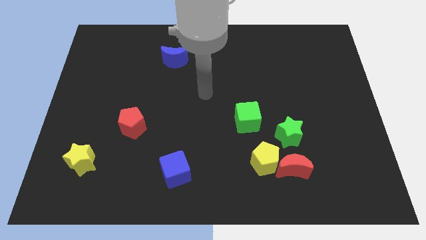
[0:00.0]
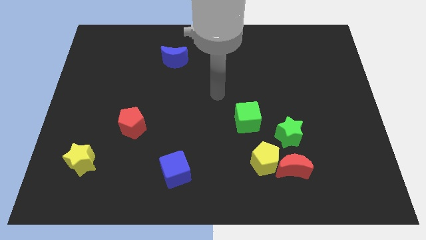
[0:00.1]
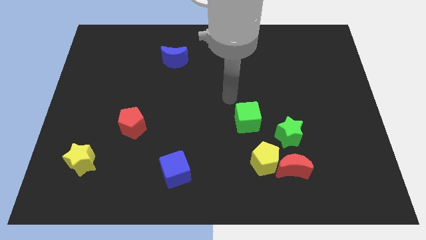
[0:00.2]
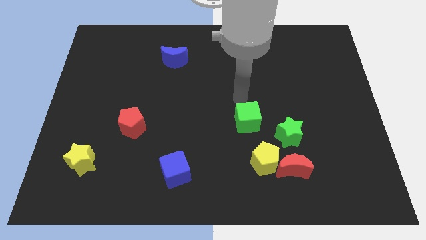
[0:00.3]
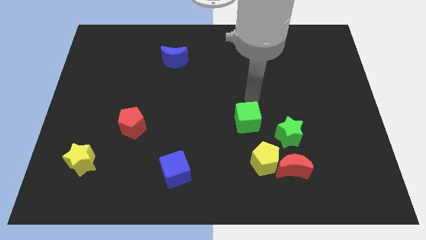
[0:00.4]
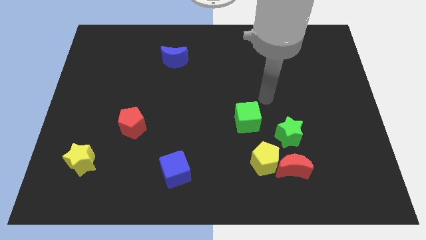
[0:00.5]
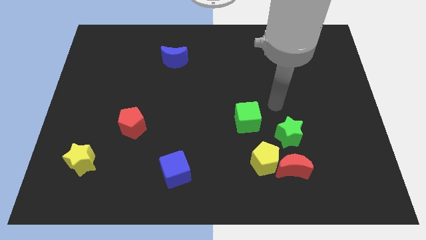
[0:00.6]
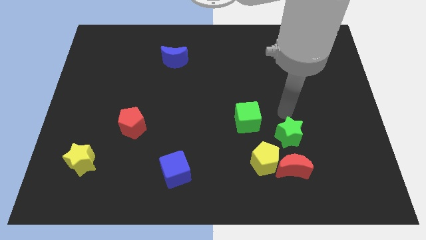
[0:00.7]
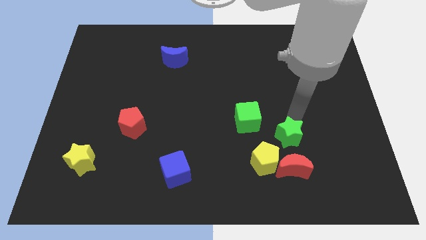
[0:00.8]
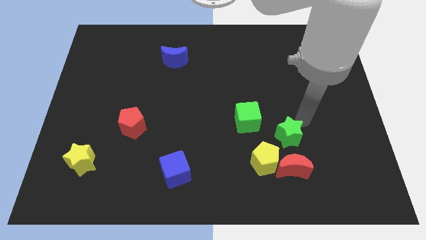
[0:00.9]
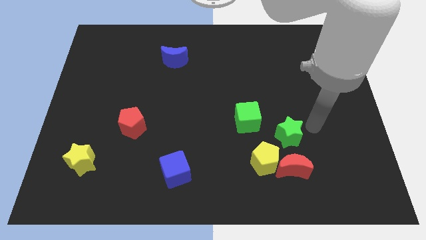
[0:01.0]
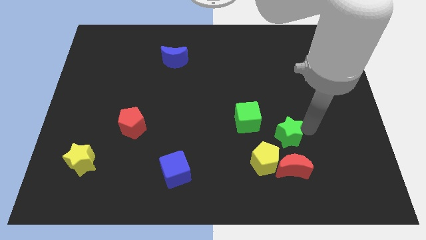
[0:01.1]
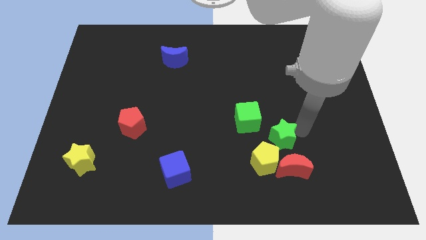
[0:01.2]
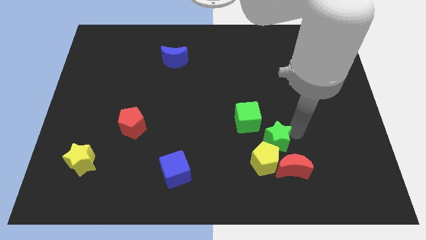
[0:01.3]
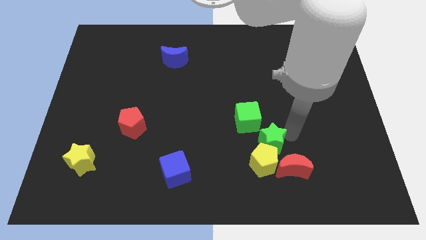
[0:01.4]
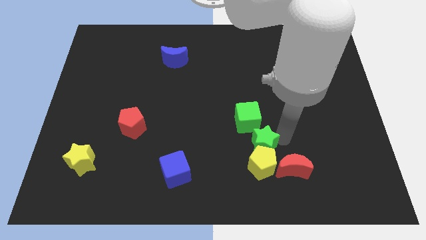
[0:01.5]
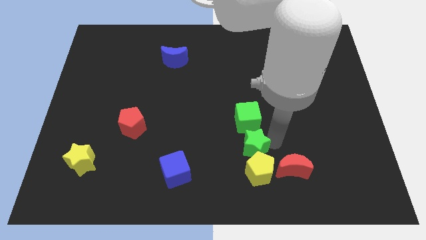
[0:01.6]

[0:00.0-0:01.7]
slide the green star to the left somewhat

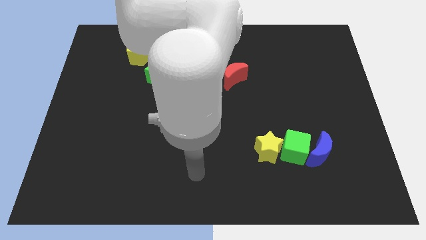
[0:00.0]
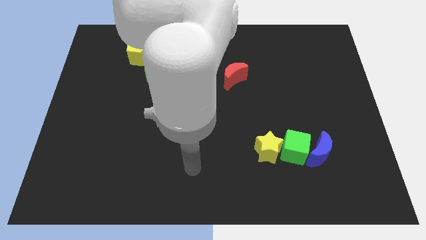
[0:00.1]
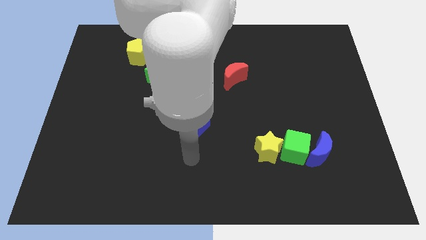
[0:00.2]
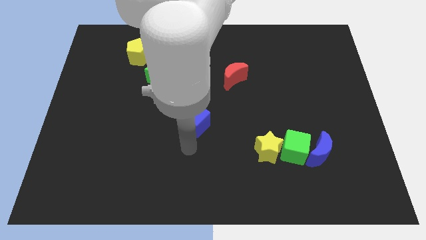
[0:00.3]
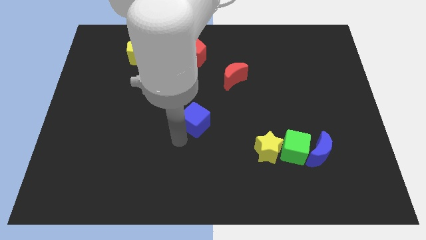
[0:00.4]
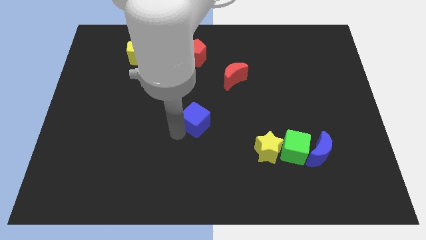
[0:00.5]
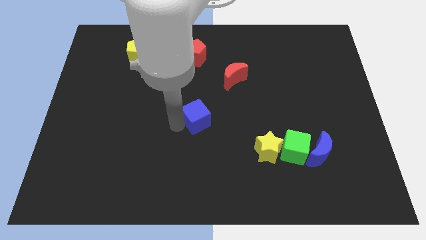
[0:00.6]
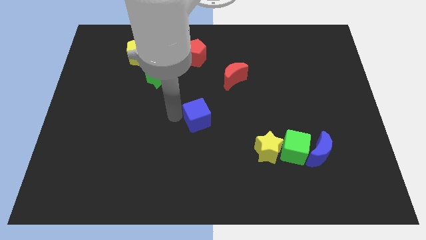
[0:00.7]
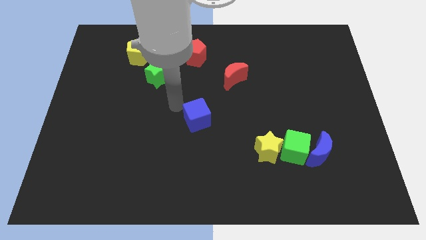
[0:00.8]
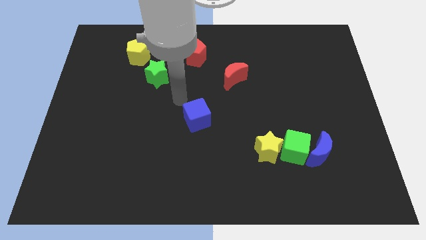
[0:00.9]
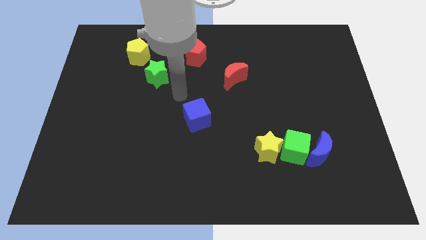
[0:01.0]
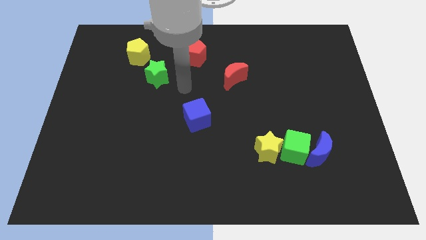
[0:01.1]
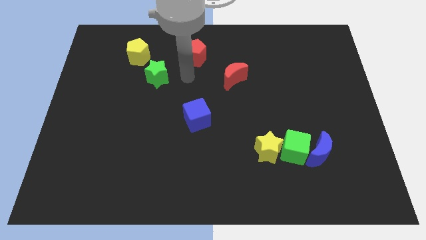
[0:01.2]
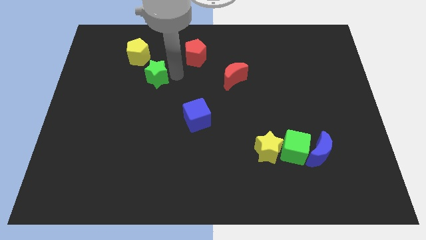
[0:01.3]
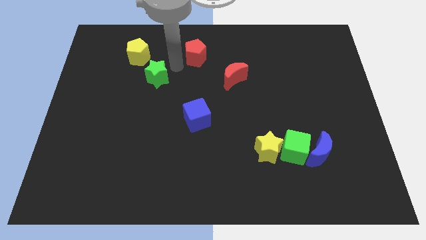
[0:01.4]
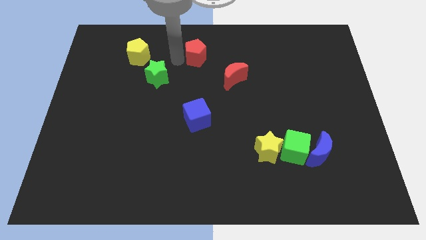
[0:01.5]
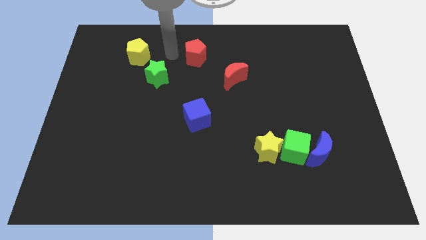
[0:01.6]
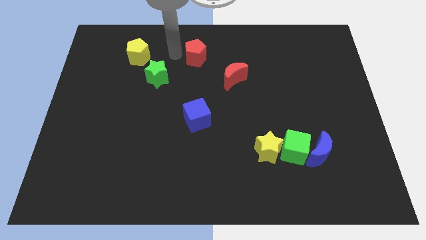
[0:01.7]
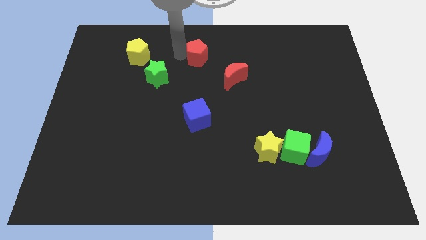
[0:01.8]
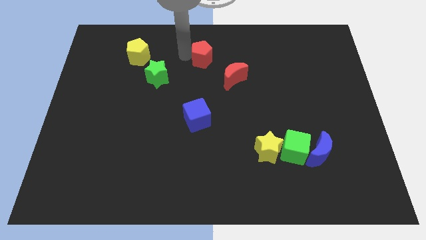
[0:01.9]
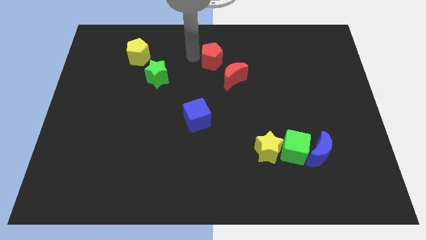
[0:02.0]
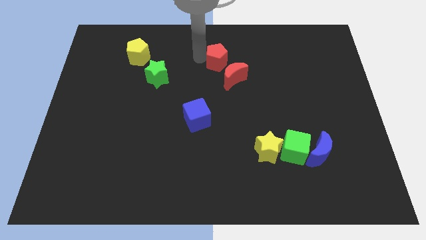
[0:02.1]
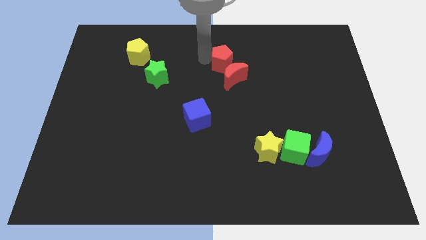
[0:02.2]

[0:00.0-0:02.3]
slightly slide the red pentagon to the right

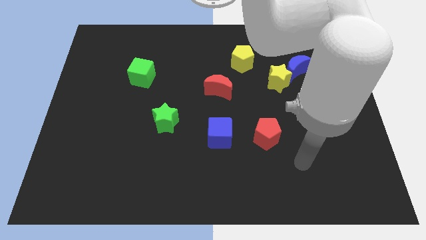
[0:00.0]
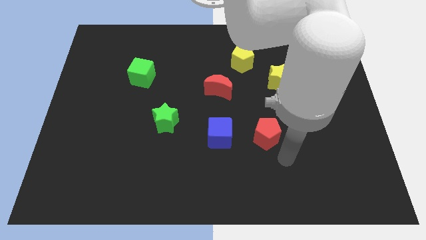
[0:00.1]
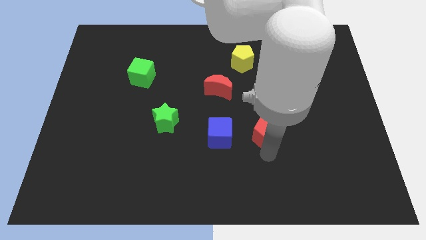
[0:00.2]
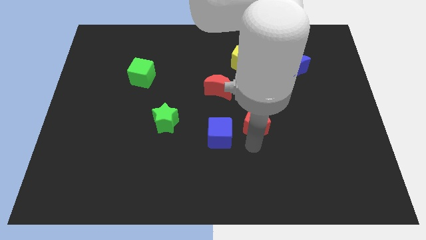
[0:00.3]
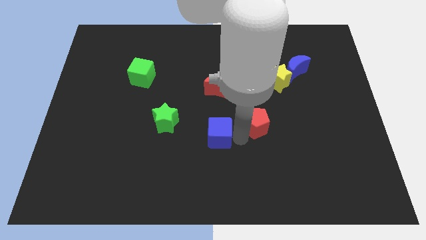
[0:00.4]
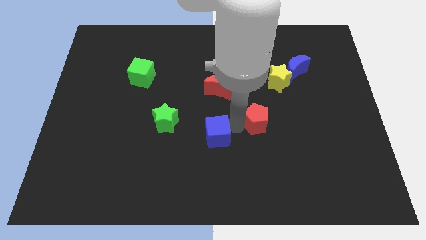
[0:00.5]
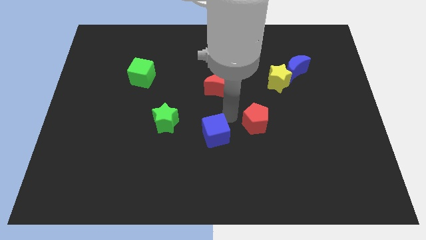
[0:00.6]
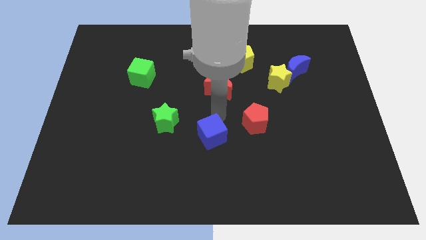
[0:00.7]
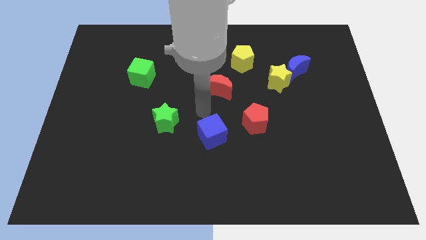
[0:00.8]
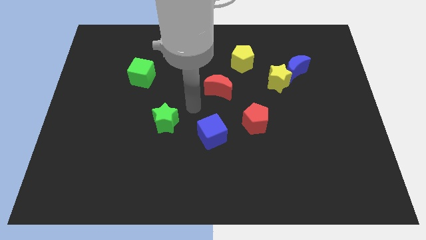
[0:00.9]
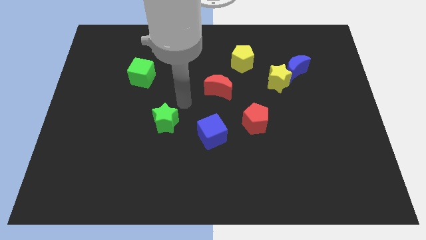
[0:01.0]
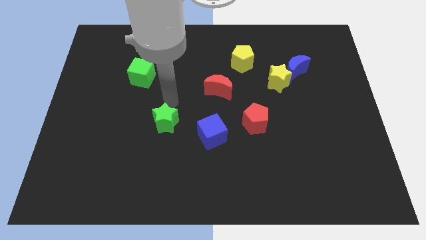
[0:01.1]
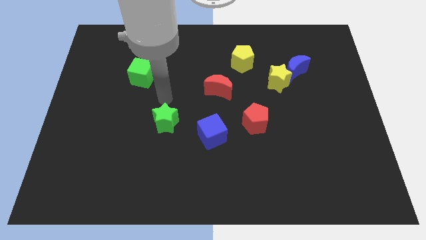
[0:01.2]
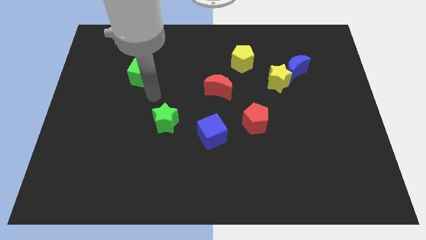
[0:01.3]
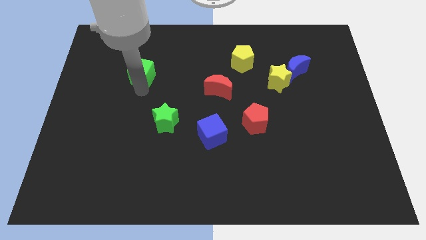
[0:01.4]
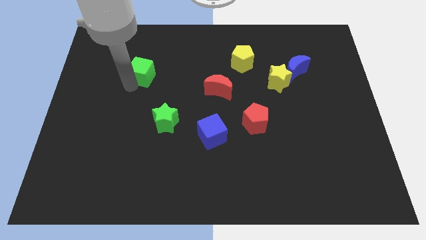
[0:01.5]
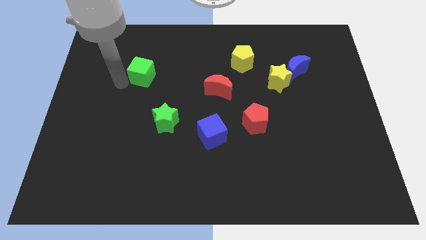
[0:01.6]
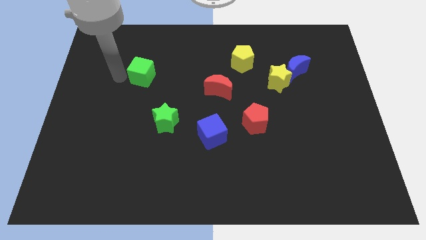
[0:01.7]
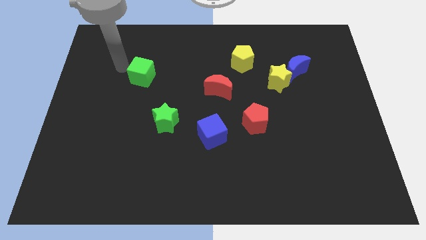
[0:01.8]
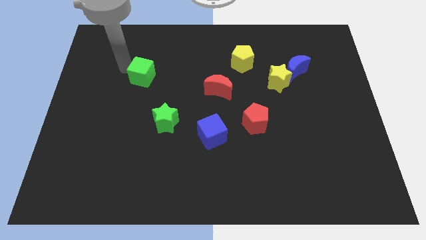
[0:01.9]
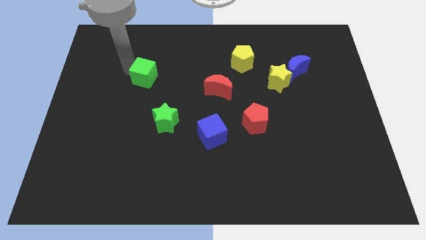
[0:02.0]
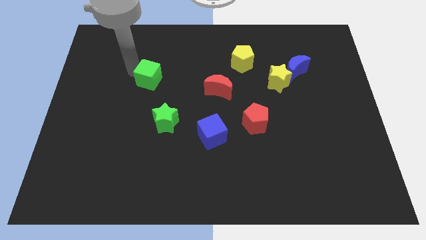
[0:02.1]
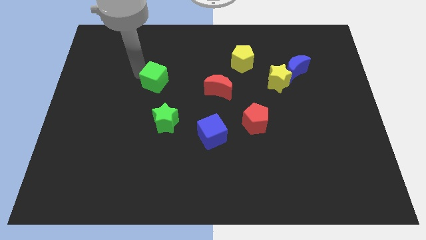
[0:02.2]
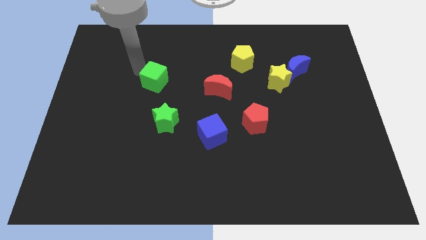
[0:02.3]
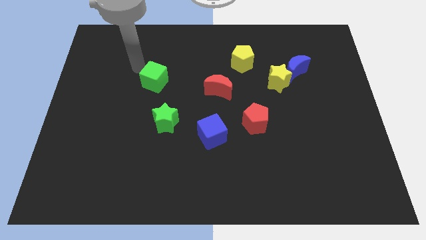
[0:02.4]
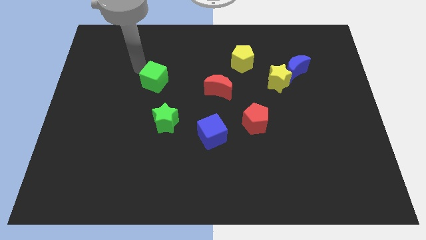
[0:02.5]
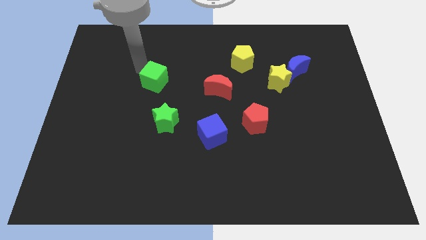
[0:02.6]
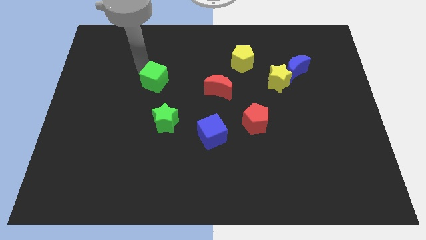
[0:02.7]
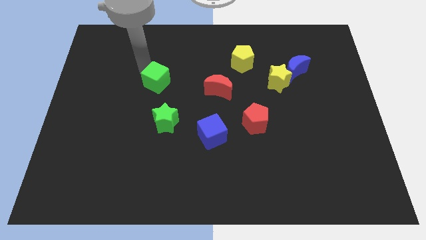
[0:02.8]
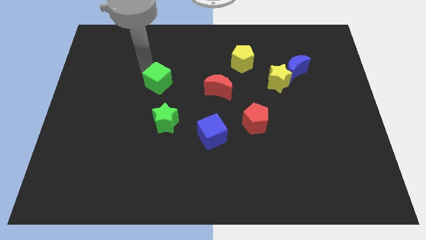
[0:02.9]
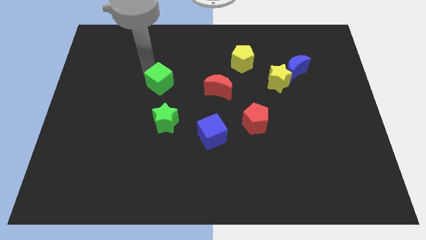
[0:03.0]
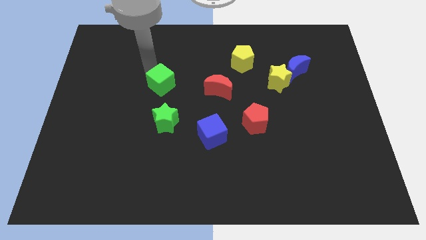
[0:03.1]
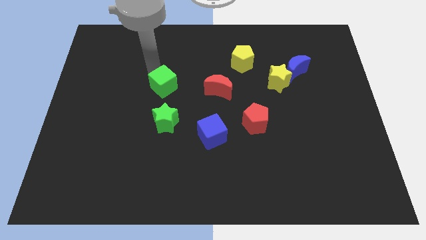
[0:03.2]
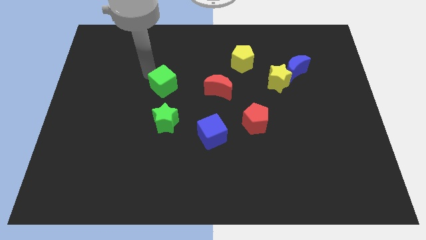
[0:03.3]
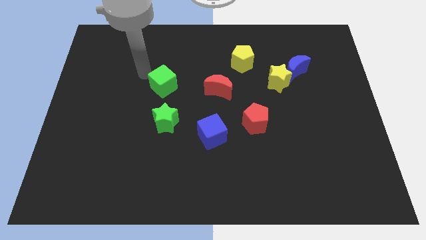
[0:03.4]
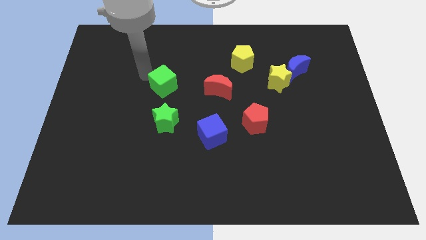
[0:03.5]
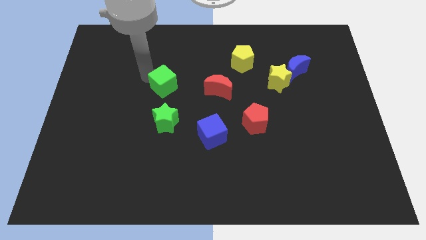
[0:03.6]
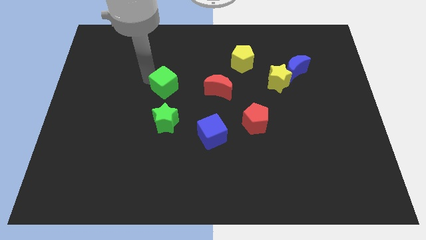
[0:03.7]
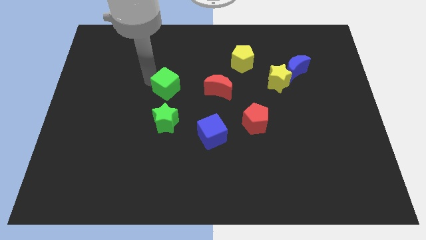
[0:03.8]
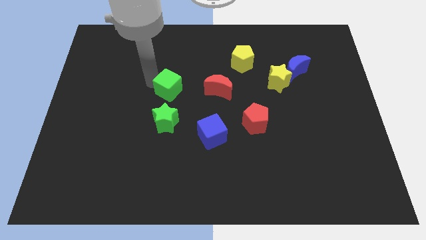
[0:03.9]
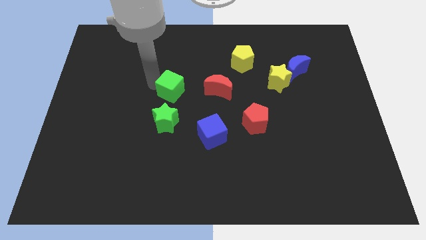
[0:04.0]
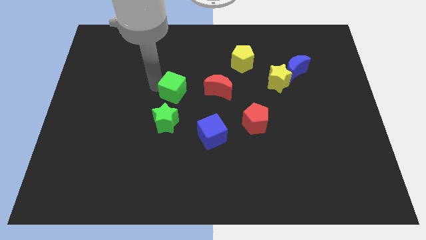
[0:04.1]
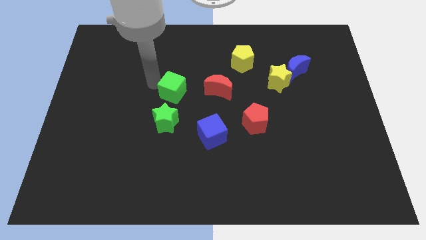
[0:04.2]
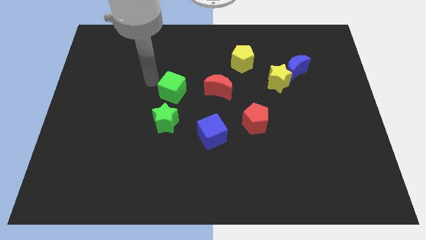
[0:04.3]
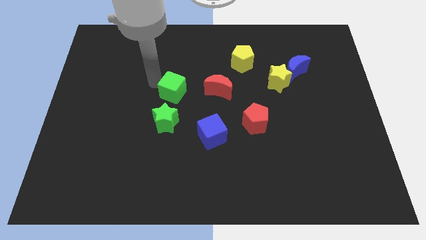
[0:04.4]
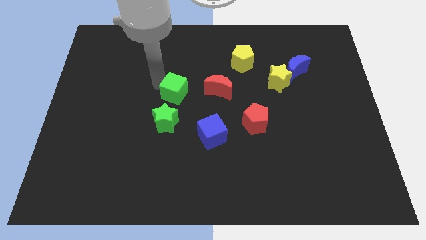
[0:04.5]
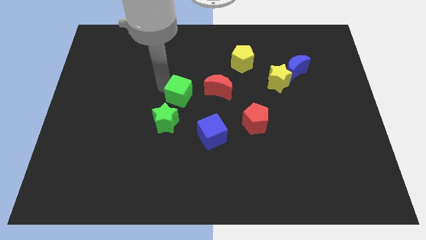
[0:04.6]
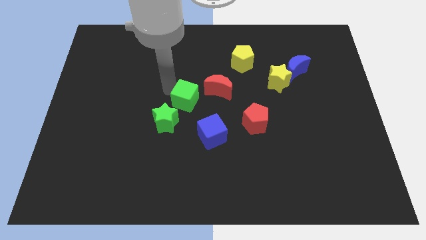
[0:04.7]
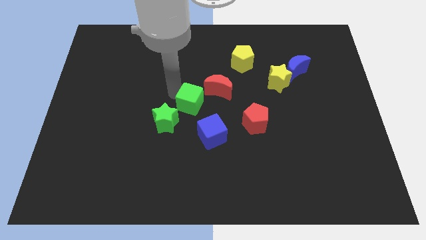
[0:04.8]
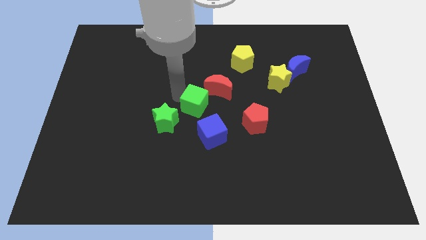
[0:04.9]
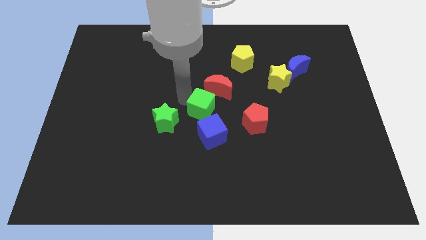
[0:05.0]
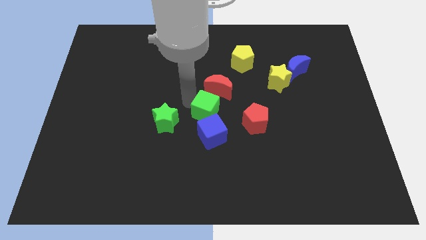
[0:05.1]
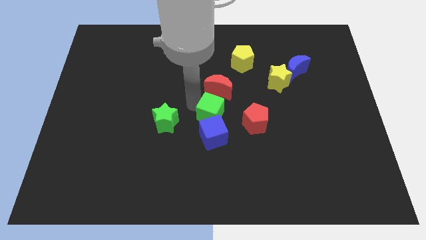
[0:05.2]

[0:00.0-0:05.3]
move the green cube down and then right
